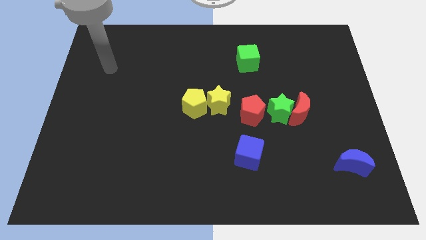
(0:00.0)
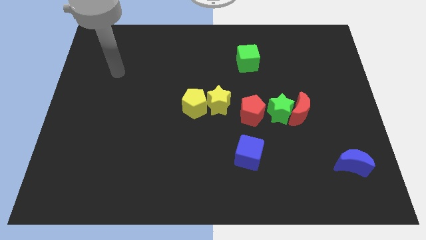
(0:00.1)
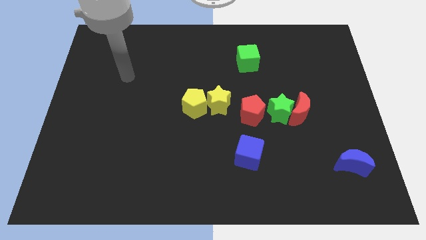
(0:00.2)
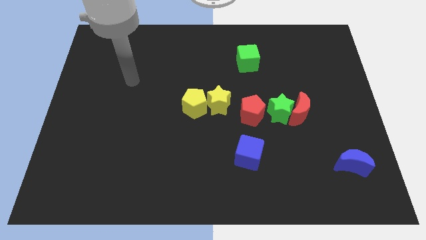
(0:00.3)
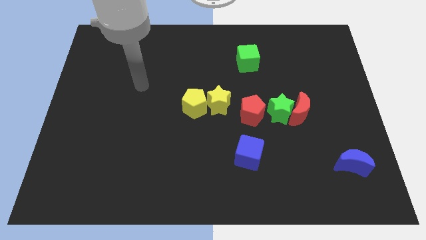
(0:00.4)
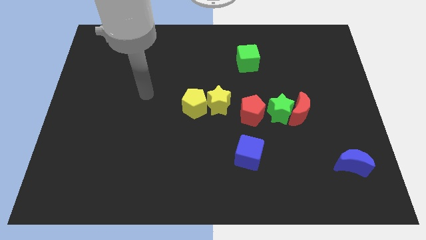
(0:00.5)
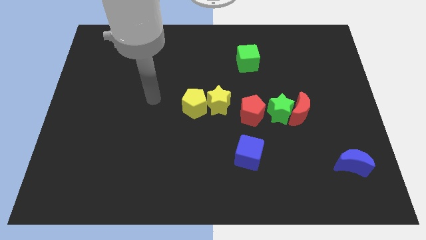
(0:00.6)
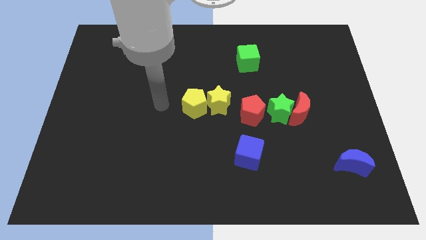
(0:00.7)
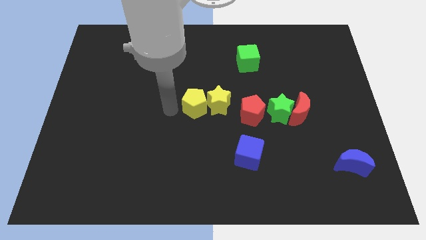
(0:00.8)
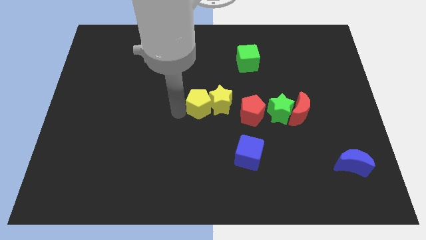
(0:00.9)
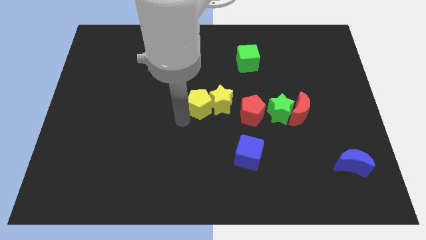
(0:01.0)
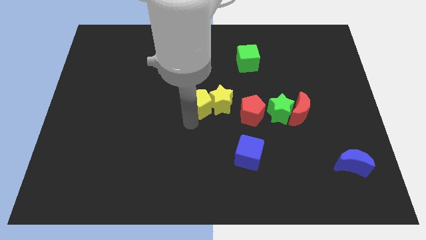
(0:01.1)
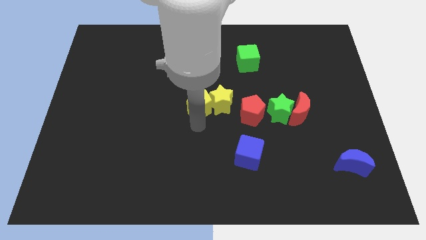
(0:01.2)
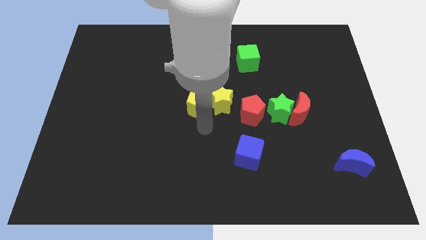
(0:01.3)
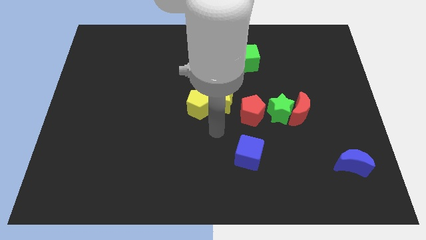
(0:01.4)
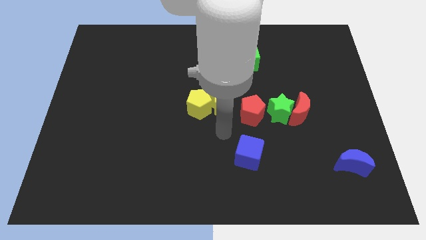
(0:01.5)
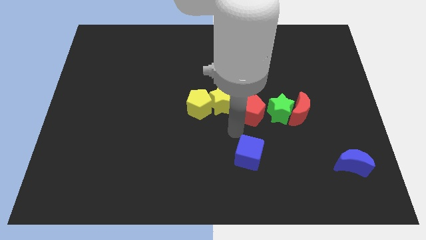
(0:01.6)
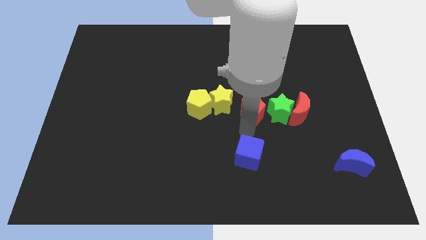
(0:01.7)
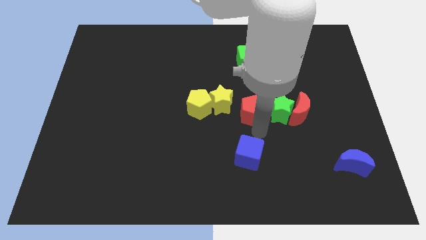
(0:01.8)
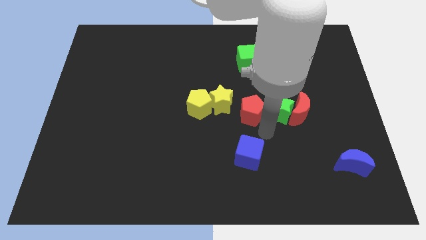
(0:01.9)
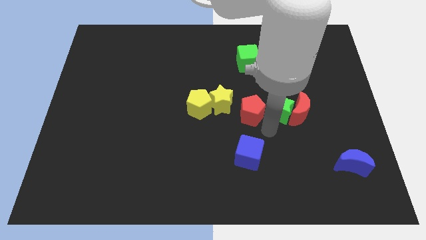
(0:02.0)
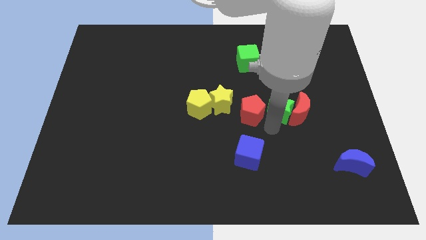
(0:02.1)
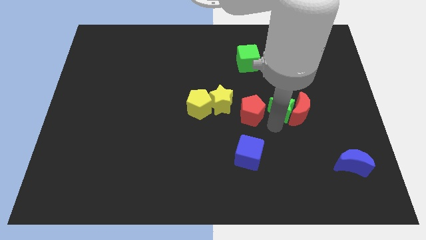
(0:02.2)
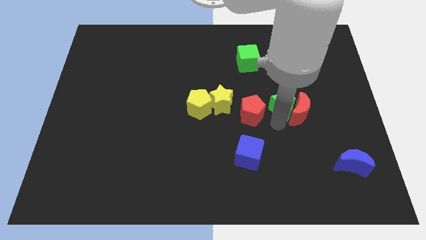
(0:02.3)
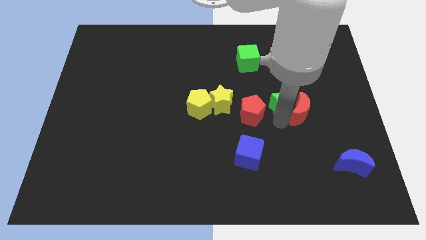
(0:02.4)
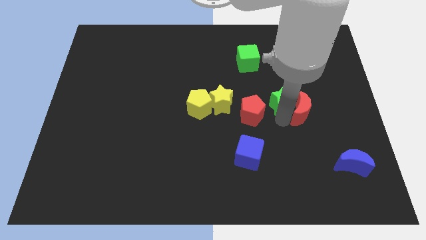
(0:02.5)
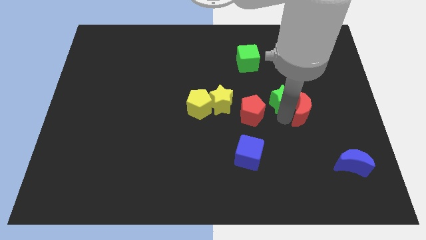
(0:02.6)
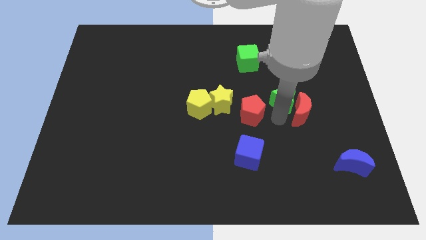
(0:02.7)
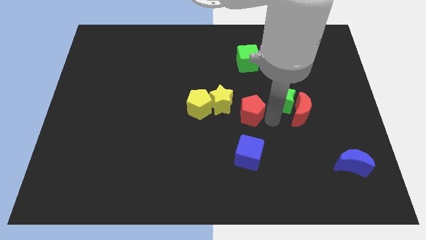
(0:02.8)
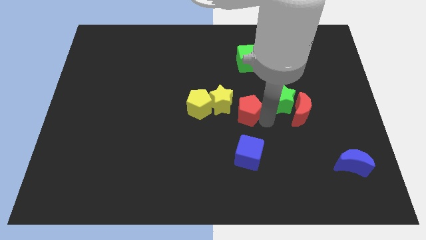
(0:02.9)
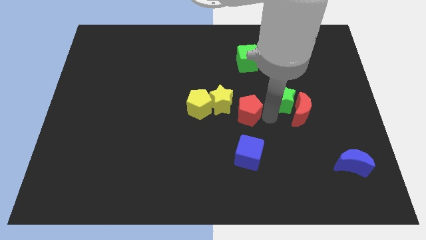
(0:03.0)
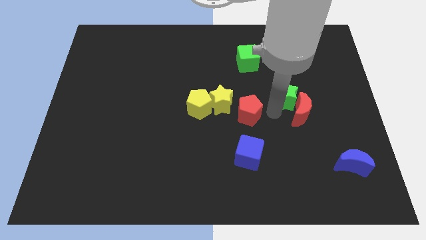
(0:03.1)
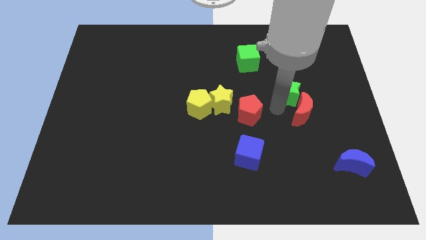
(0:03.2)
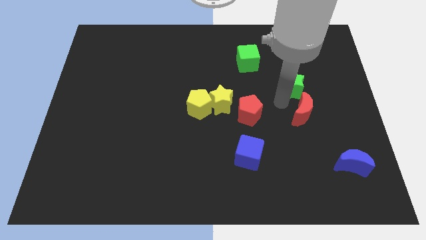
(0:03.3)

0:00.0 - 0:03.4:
push the green star a little upwards and then to the right

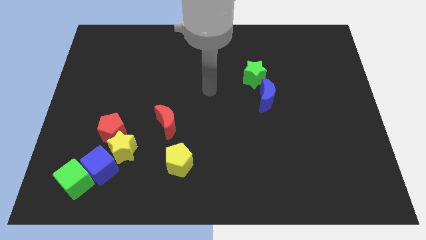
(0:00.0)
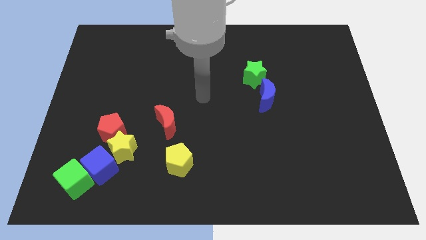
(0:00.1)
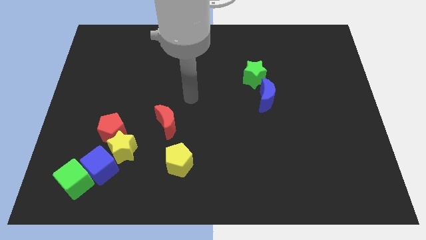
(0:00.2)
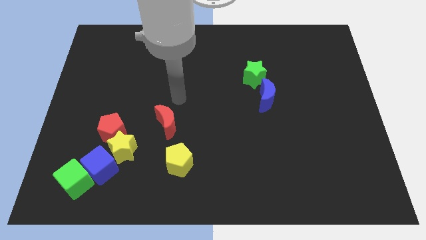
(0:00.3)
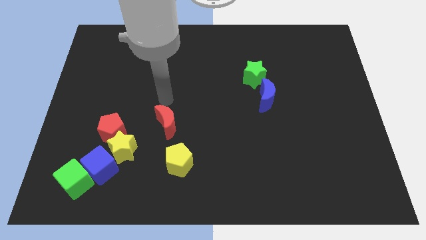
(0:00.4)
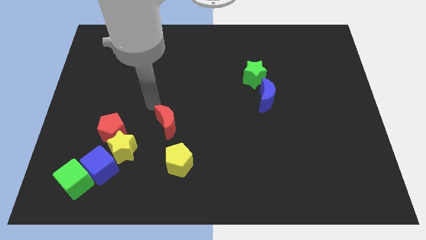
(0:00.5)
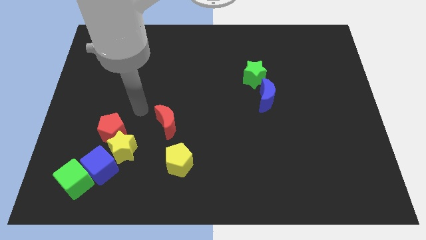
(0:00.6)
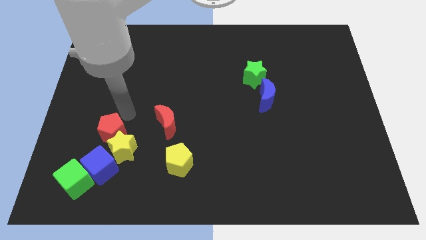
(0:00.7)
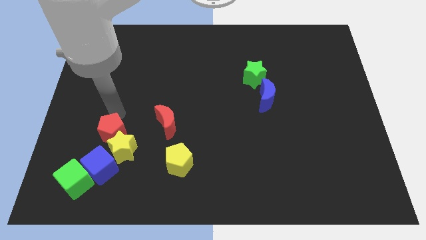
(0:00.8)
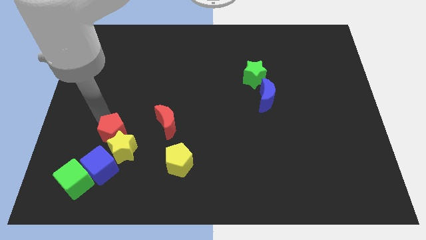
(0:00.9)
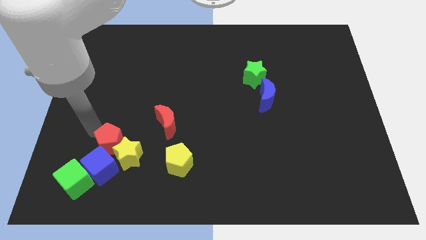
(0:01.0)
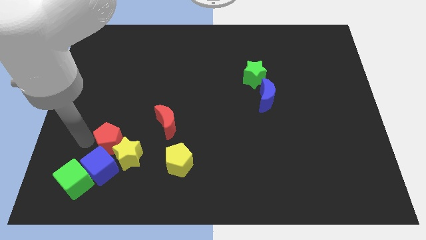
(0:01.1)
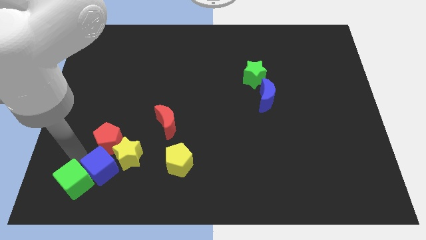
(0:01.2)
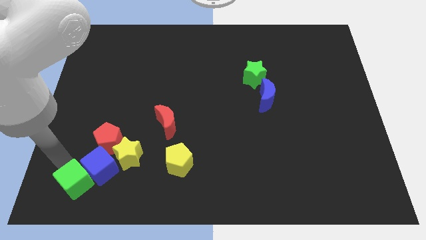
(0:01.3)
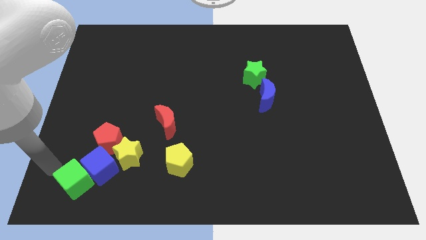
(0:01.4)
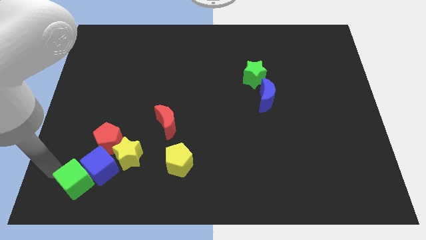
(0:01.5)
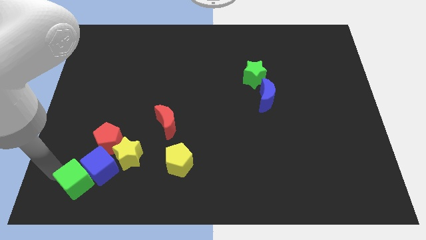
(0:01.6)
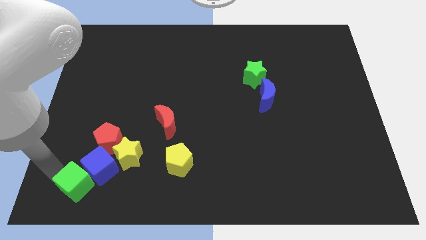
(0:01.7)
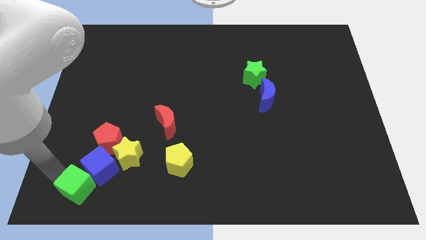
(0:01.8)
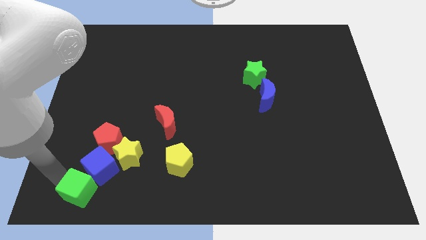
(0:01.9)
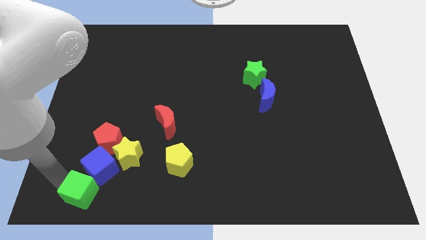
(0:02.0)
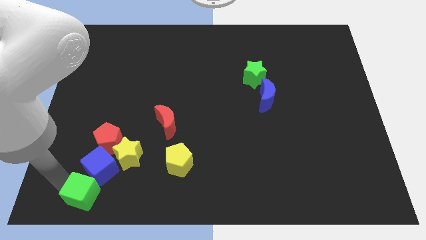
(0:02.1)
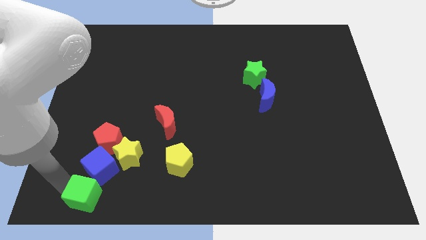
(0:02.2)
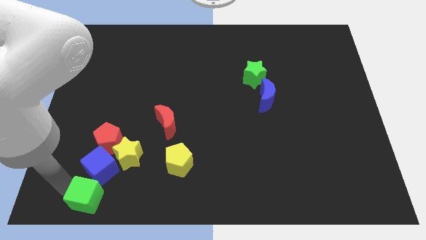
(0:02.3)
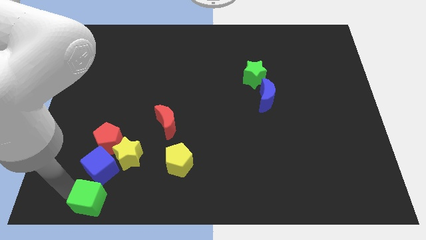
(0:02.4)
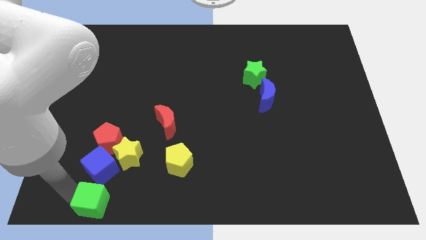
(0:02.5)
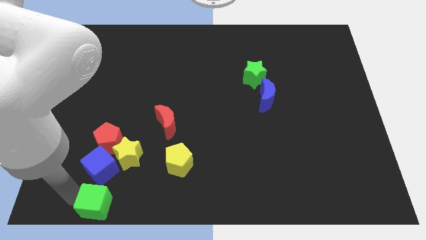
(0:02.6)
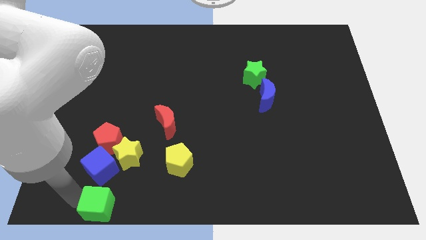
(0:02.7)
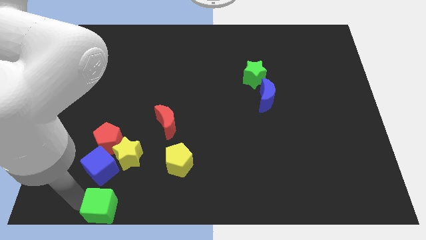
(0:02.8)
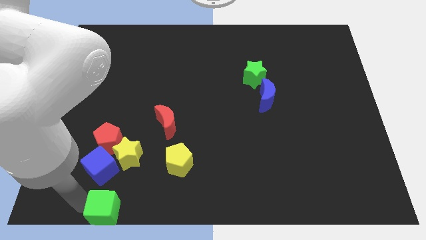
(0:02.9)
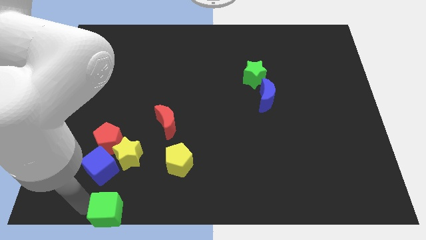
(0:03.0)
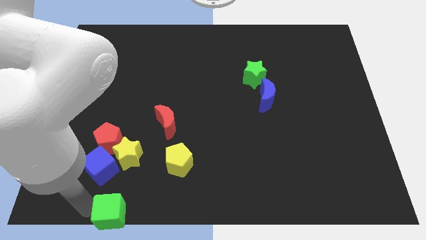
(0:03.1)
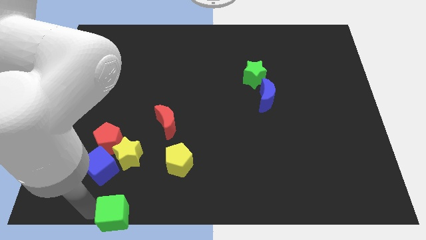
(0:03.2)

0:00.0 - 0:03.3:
slide the green cube right slightly

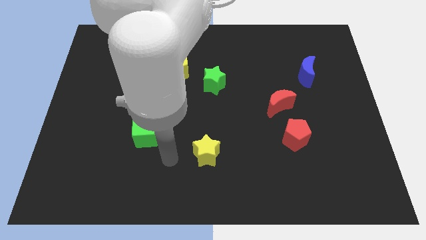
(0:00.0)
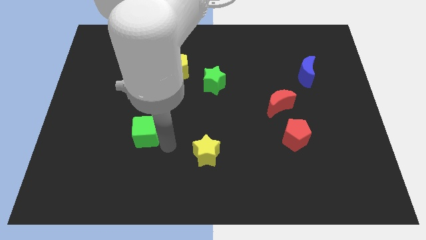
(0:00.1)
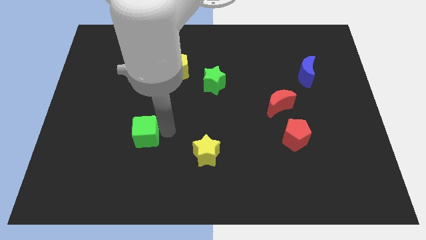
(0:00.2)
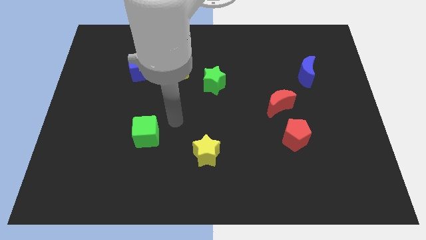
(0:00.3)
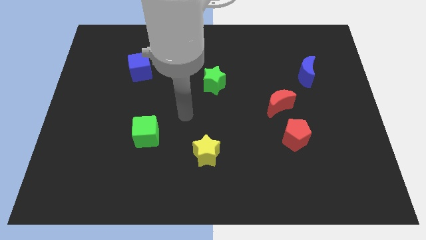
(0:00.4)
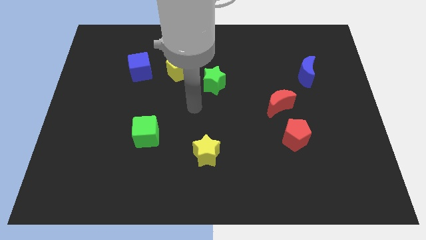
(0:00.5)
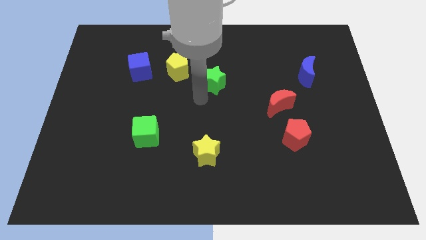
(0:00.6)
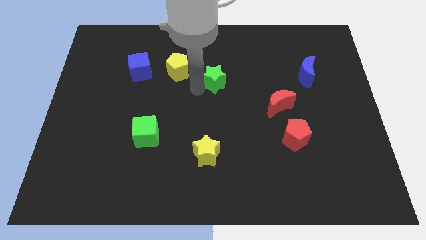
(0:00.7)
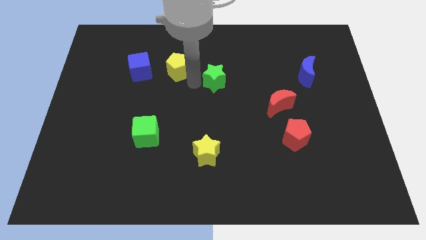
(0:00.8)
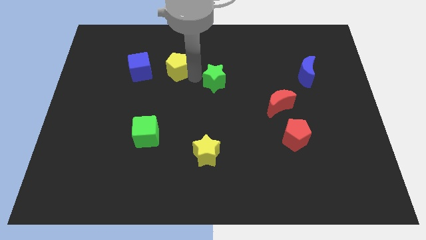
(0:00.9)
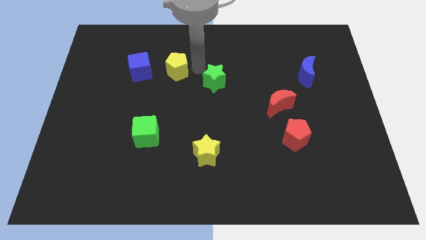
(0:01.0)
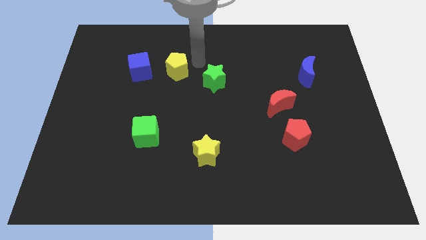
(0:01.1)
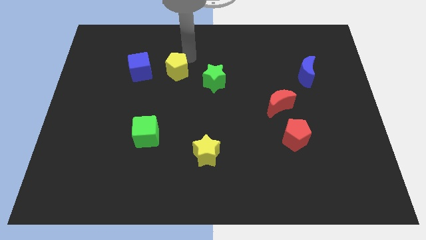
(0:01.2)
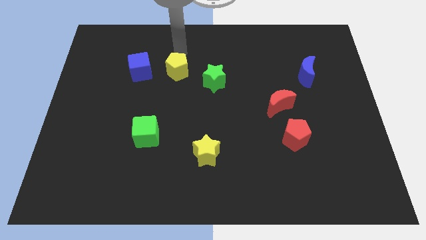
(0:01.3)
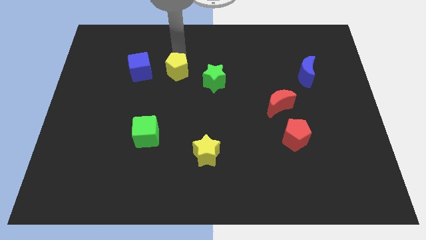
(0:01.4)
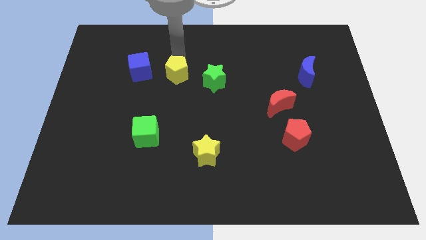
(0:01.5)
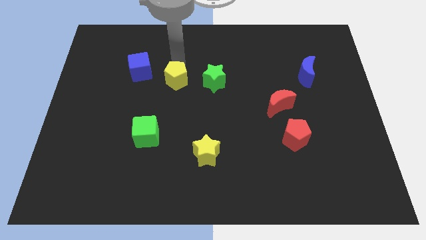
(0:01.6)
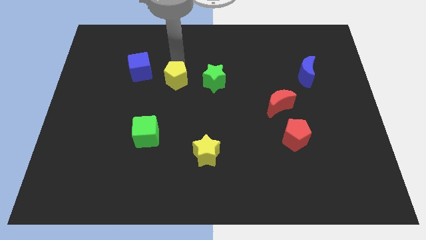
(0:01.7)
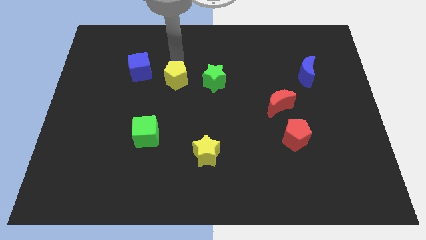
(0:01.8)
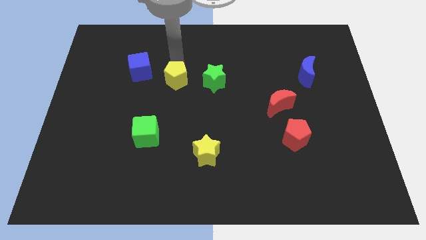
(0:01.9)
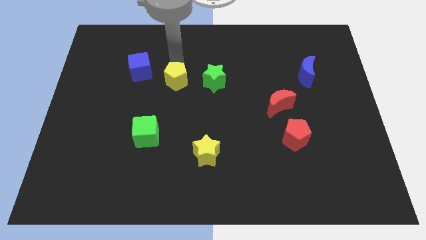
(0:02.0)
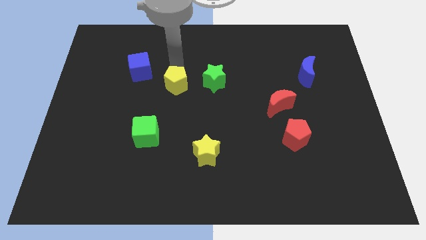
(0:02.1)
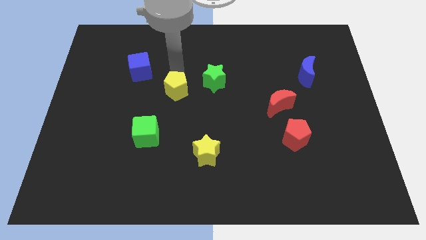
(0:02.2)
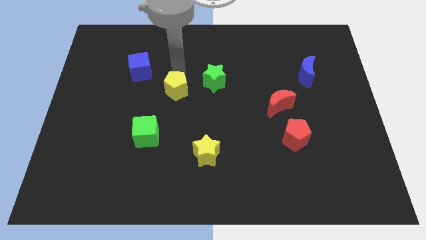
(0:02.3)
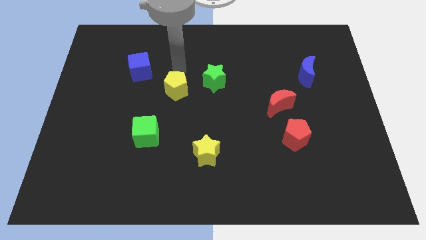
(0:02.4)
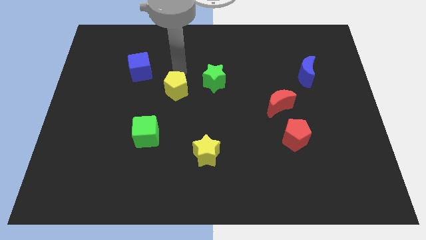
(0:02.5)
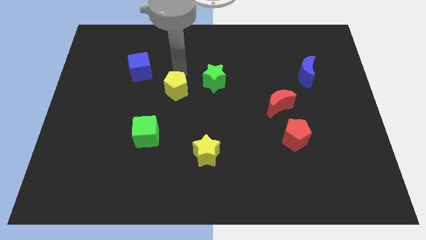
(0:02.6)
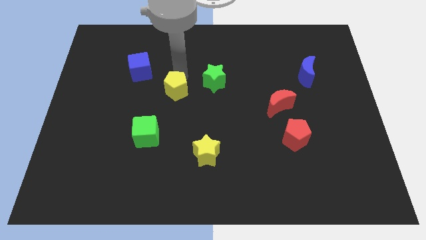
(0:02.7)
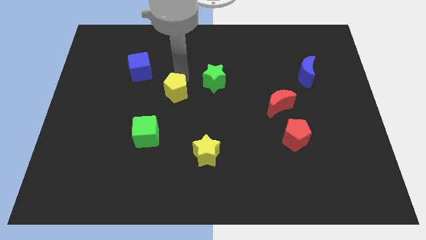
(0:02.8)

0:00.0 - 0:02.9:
push the yellow pentagon slightly downwards
